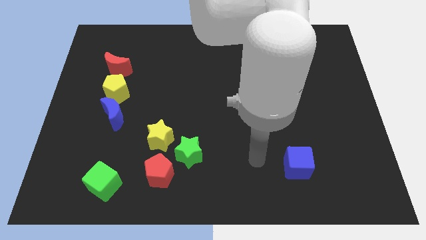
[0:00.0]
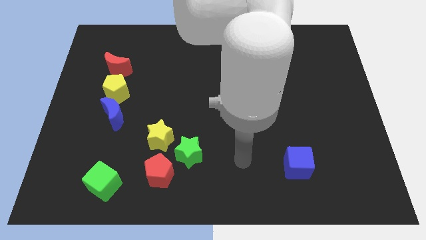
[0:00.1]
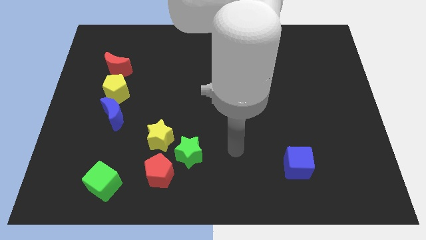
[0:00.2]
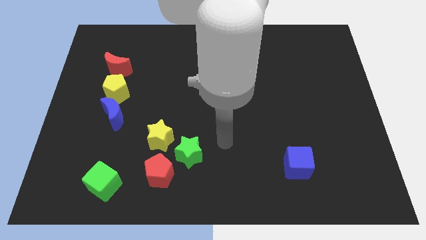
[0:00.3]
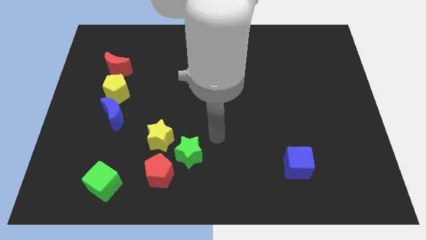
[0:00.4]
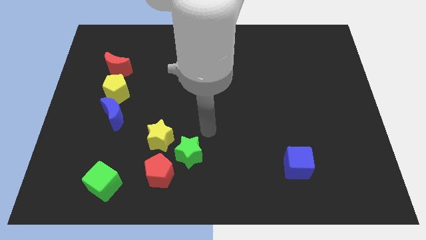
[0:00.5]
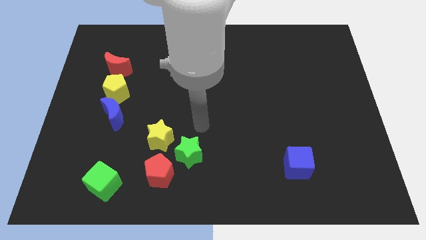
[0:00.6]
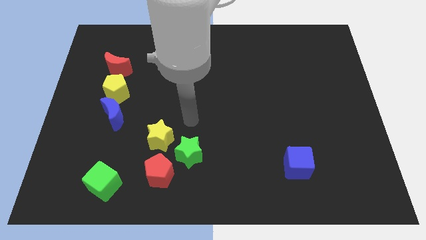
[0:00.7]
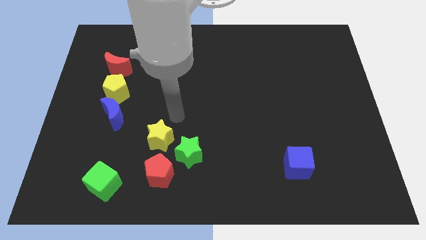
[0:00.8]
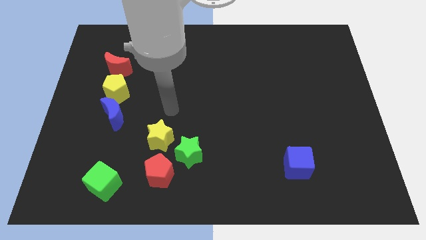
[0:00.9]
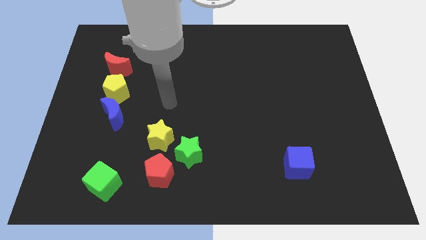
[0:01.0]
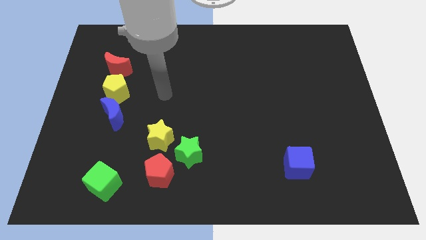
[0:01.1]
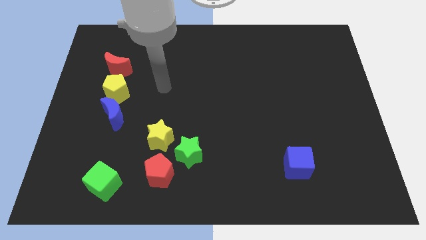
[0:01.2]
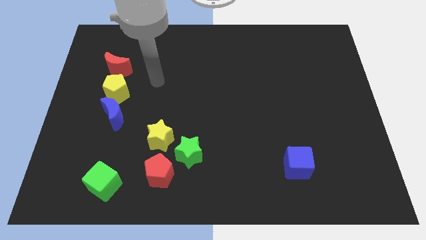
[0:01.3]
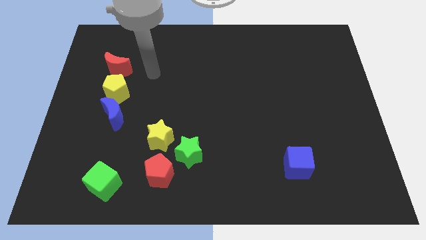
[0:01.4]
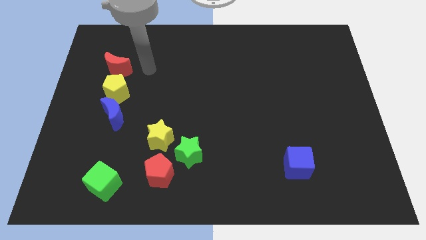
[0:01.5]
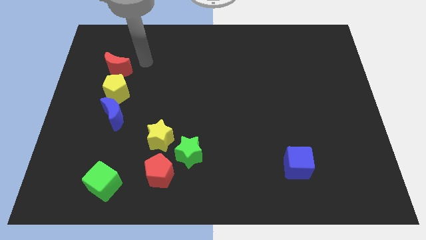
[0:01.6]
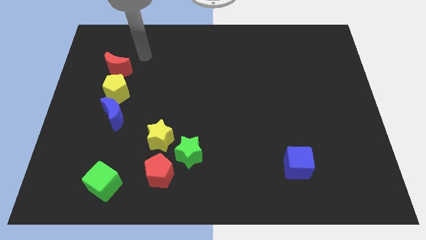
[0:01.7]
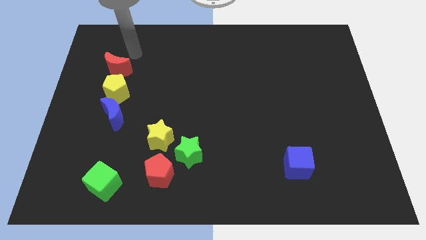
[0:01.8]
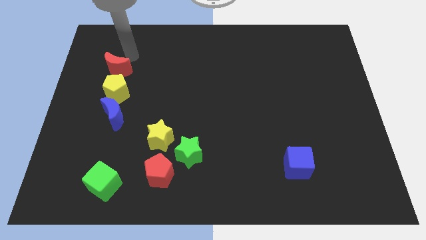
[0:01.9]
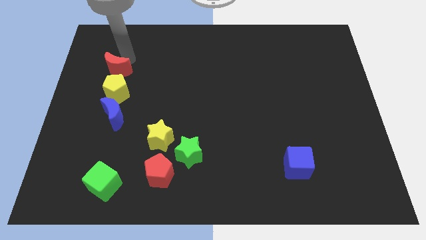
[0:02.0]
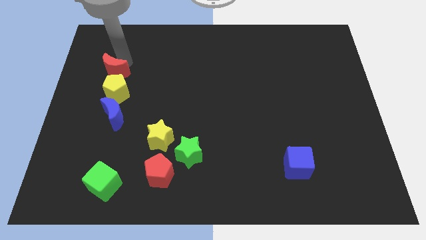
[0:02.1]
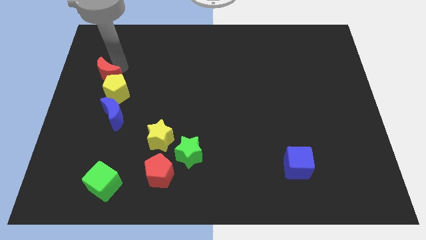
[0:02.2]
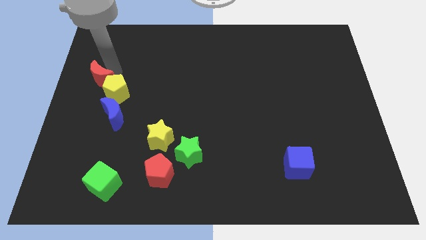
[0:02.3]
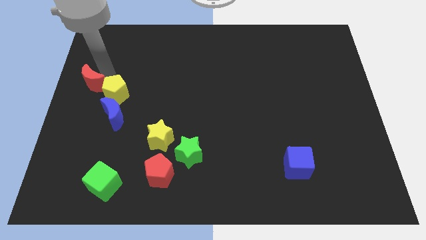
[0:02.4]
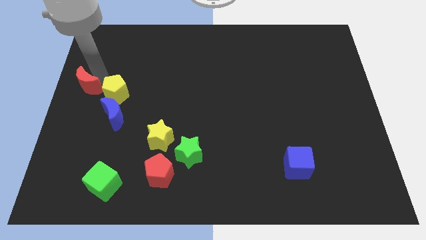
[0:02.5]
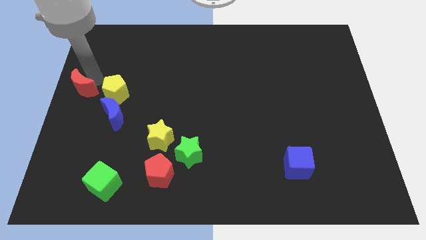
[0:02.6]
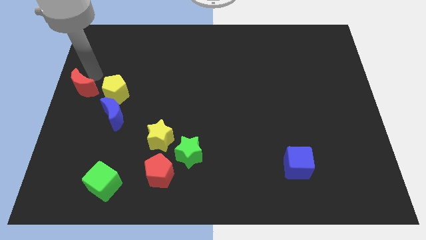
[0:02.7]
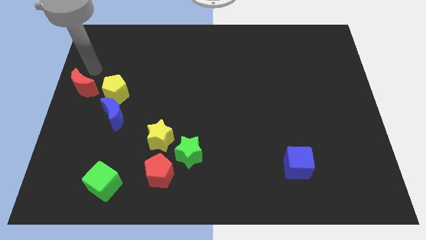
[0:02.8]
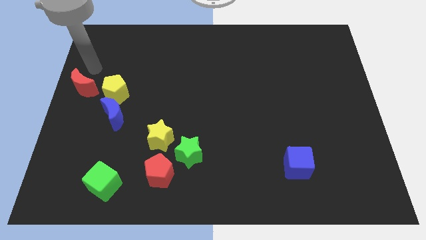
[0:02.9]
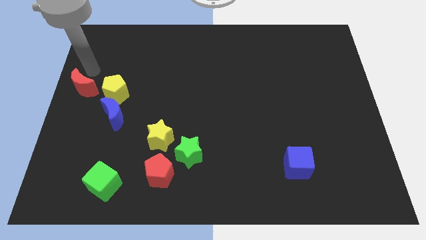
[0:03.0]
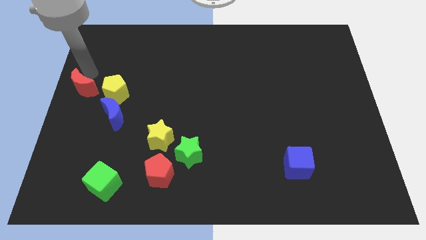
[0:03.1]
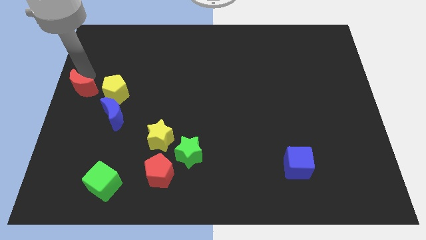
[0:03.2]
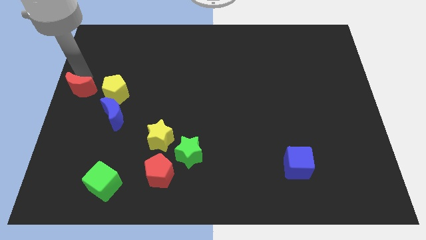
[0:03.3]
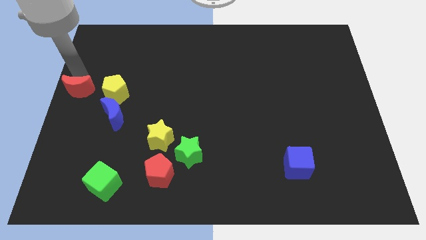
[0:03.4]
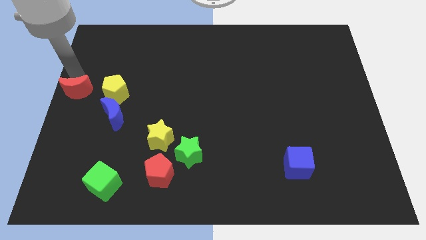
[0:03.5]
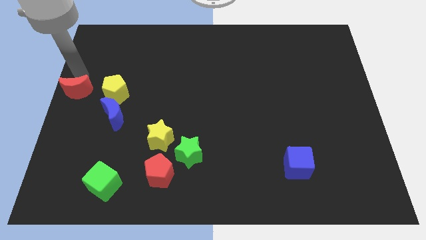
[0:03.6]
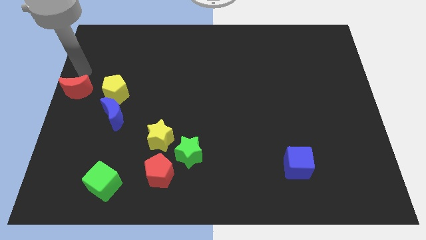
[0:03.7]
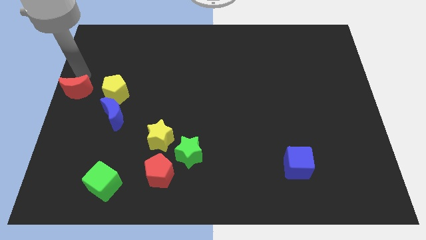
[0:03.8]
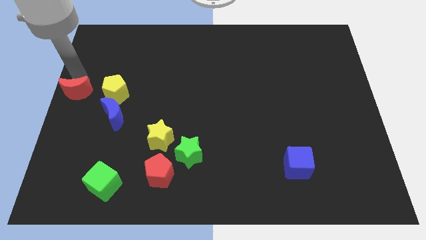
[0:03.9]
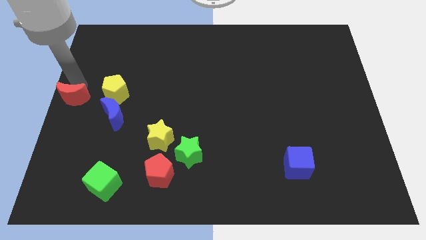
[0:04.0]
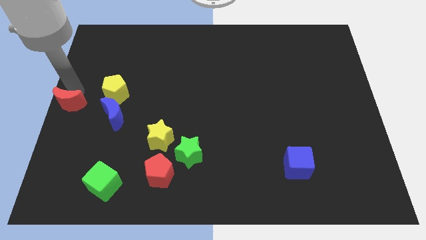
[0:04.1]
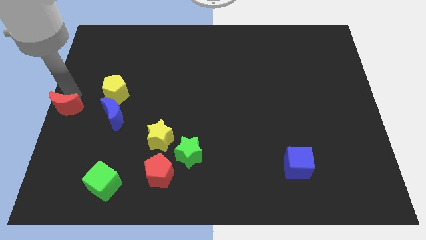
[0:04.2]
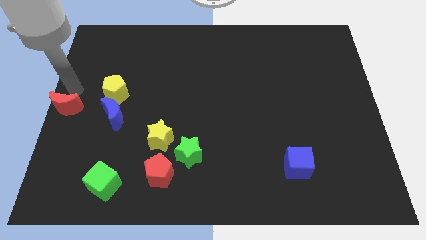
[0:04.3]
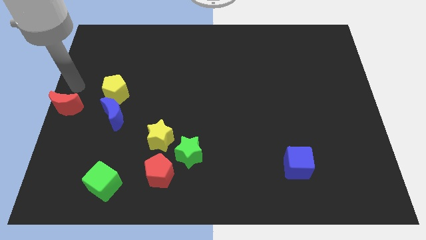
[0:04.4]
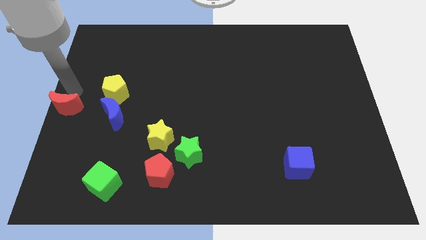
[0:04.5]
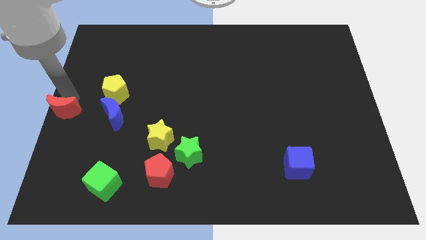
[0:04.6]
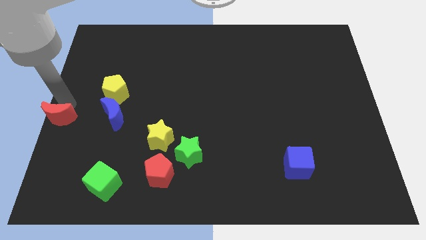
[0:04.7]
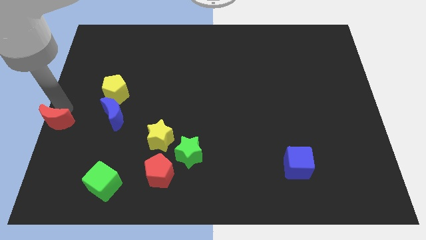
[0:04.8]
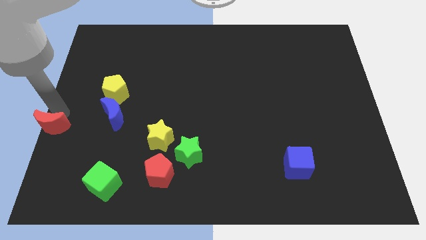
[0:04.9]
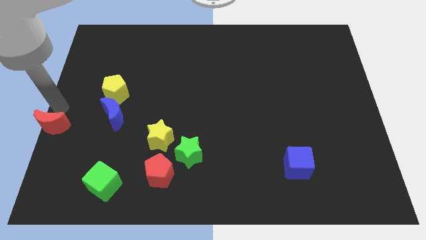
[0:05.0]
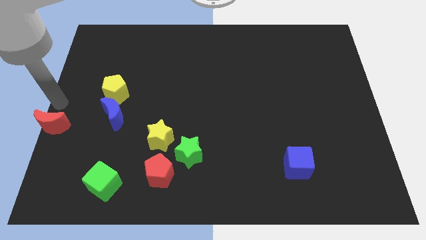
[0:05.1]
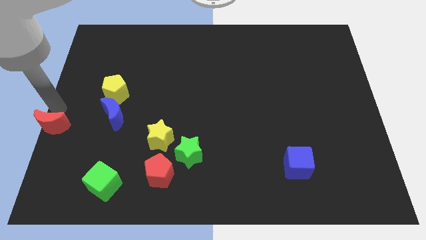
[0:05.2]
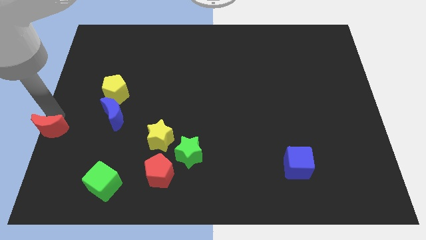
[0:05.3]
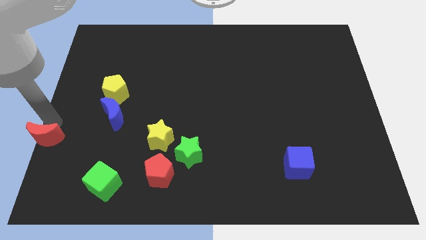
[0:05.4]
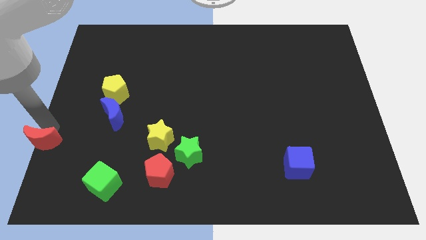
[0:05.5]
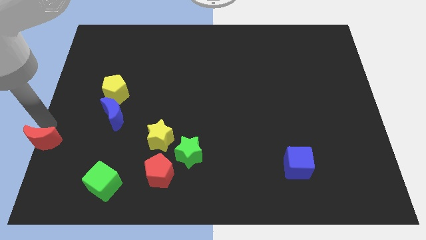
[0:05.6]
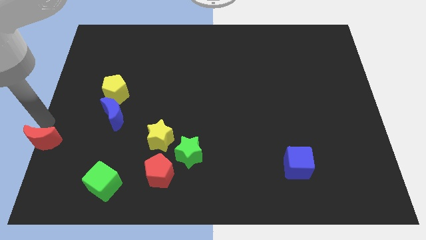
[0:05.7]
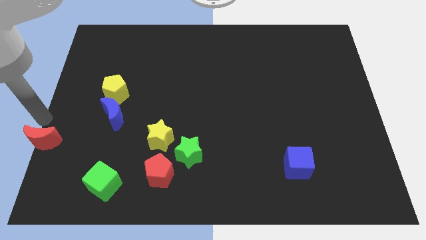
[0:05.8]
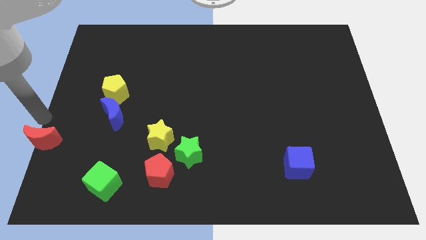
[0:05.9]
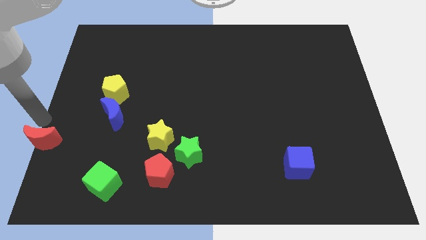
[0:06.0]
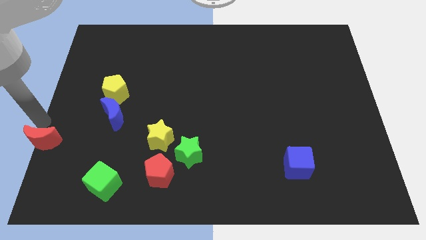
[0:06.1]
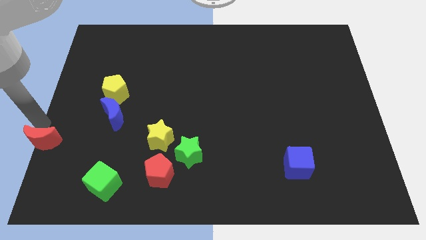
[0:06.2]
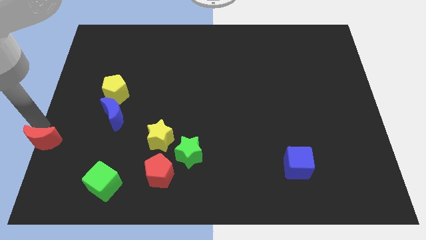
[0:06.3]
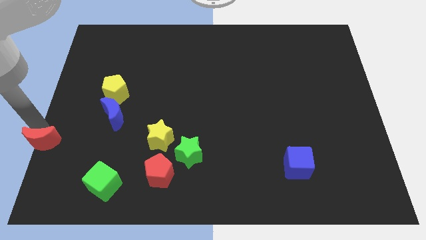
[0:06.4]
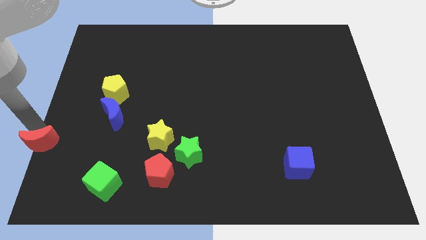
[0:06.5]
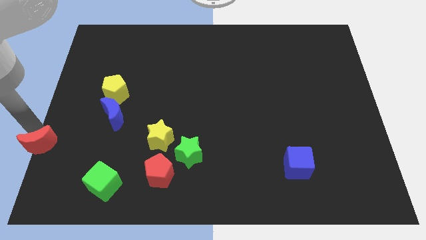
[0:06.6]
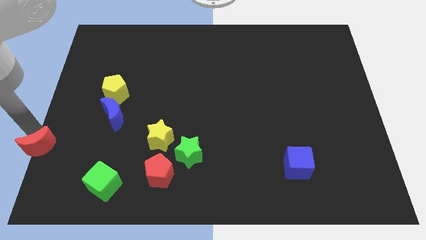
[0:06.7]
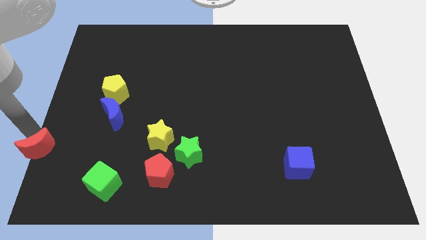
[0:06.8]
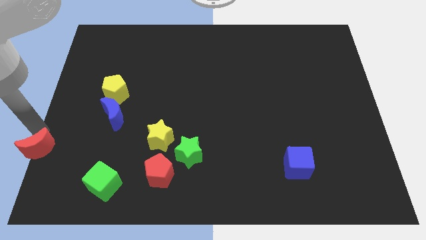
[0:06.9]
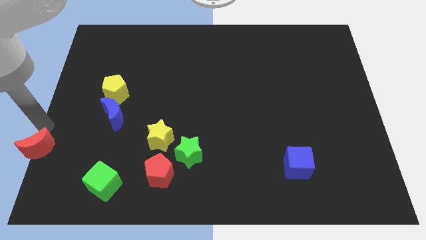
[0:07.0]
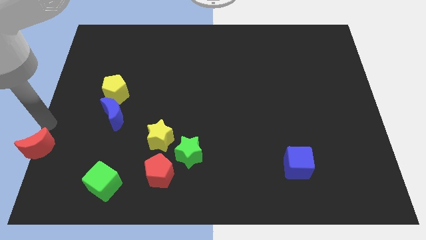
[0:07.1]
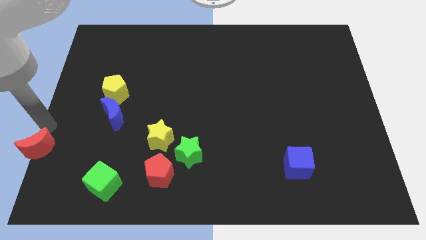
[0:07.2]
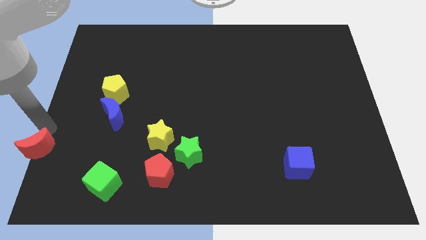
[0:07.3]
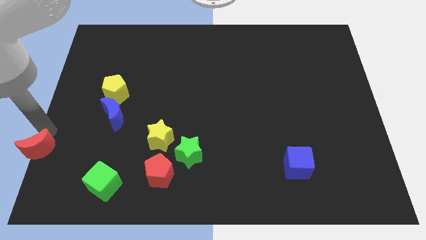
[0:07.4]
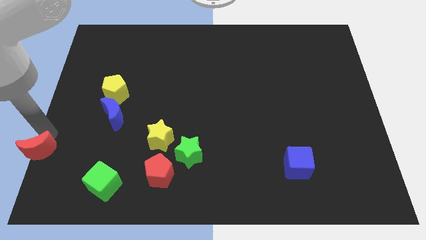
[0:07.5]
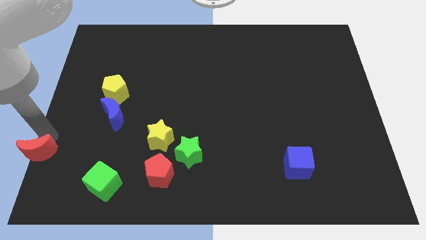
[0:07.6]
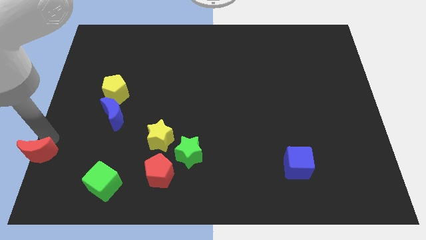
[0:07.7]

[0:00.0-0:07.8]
slide the red moon to the lower left corner
